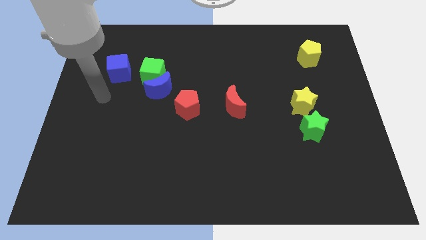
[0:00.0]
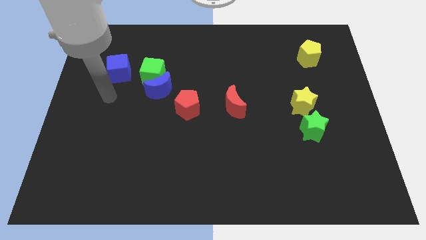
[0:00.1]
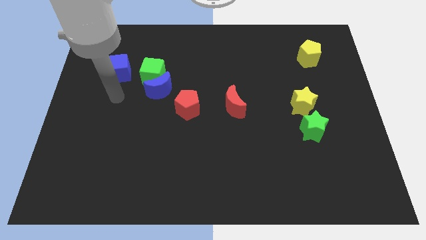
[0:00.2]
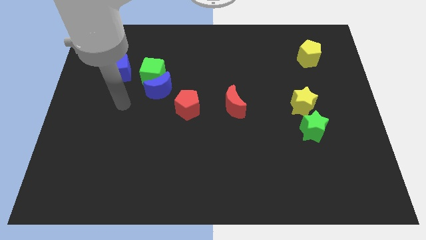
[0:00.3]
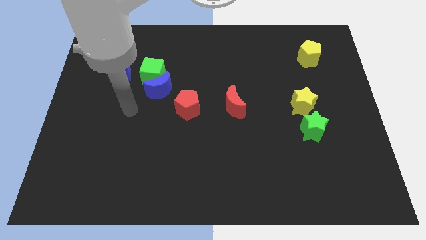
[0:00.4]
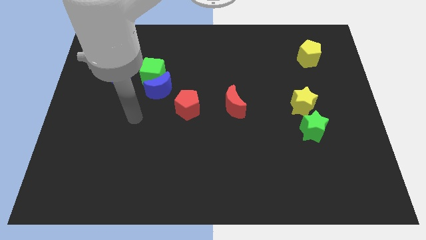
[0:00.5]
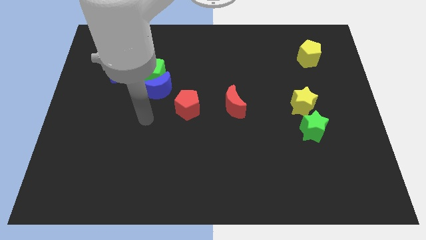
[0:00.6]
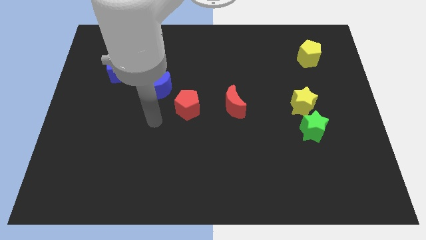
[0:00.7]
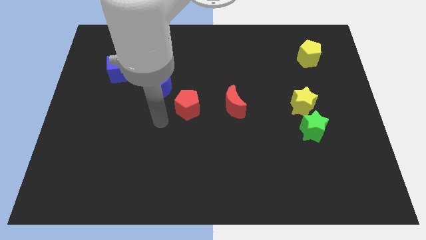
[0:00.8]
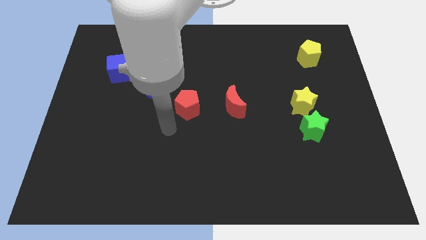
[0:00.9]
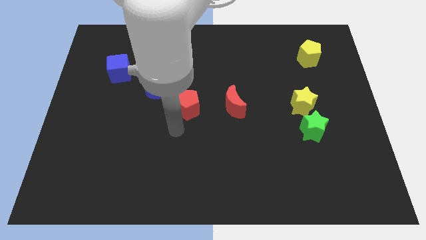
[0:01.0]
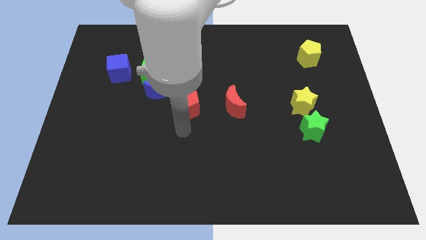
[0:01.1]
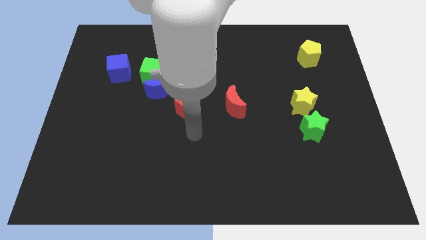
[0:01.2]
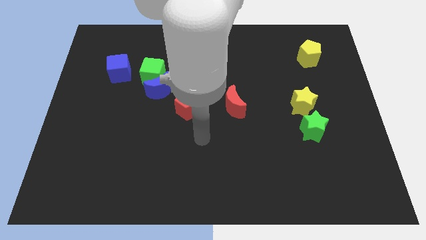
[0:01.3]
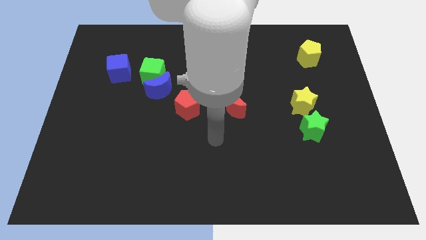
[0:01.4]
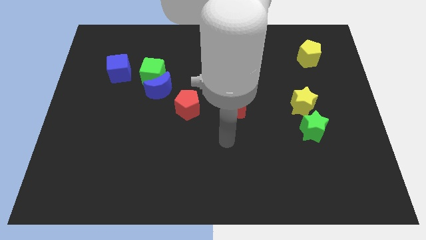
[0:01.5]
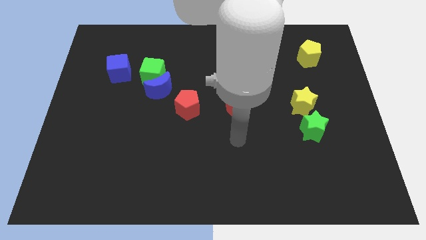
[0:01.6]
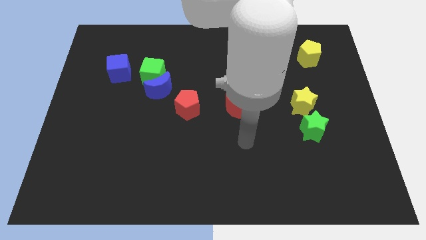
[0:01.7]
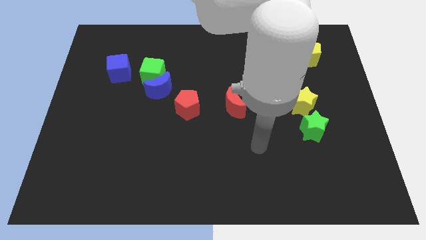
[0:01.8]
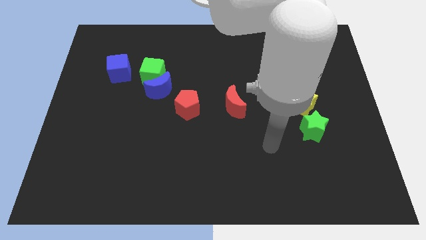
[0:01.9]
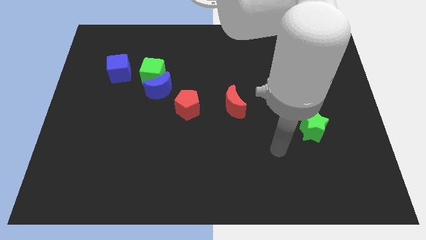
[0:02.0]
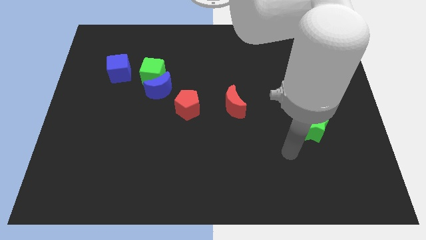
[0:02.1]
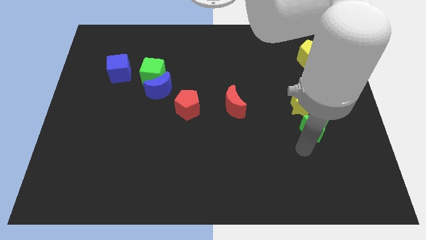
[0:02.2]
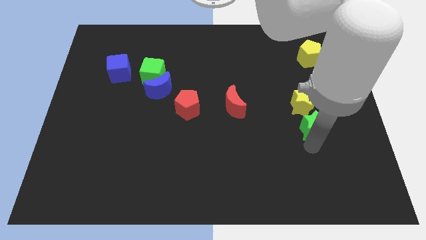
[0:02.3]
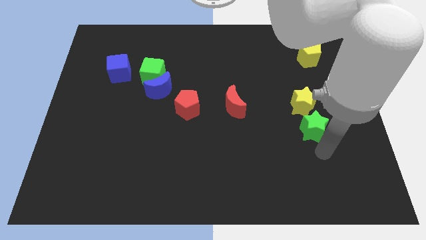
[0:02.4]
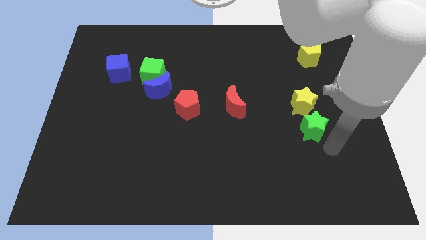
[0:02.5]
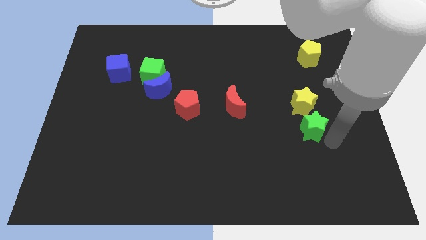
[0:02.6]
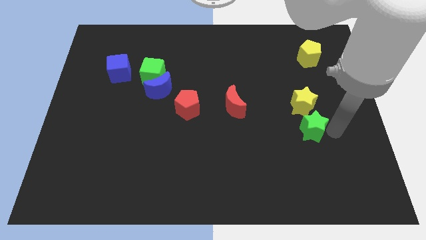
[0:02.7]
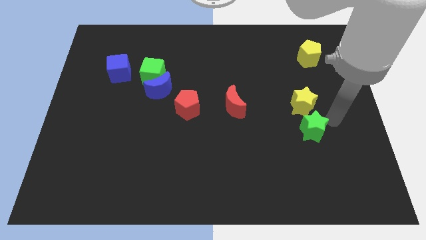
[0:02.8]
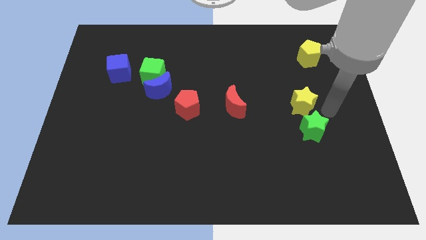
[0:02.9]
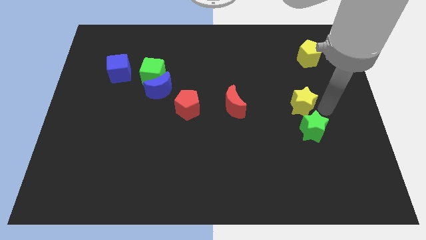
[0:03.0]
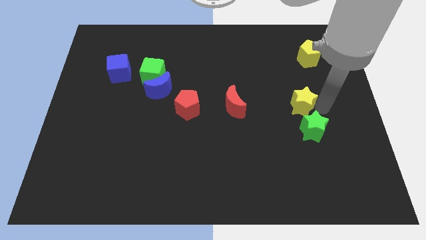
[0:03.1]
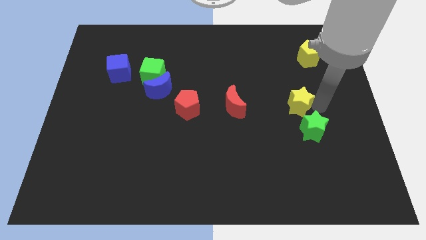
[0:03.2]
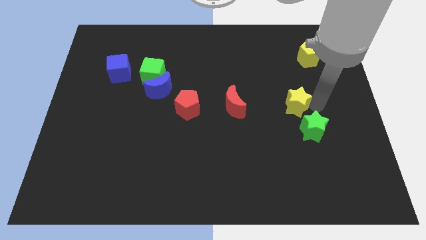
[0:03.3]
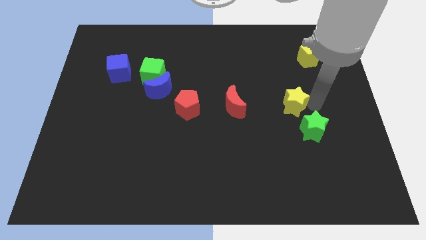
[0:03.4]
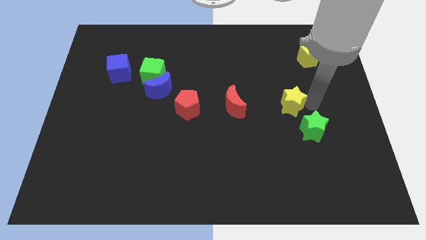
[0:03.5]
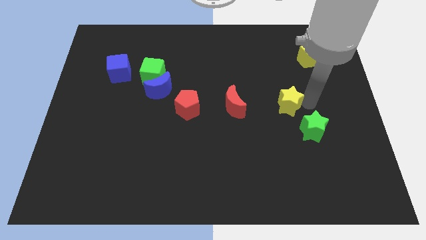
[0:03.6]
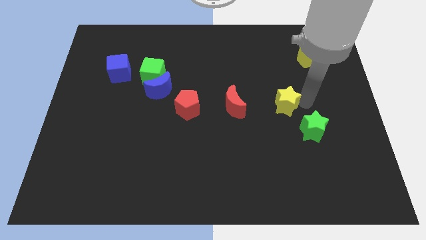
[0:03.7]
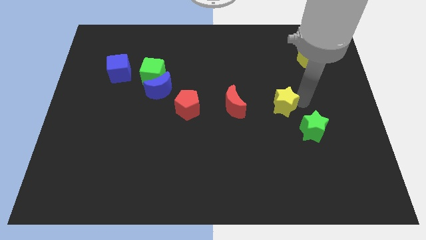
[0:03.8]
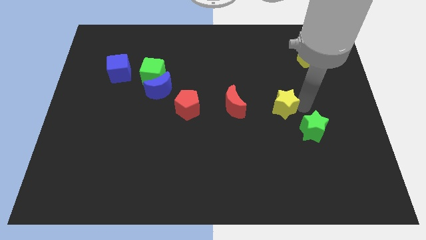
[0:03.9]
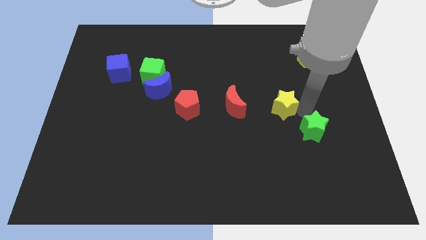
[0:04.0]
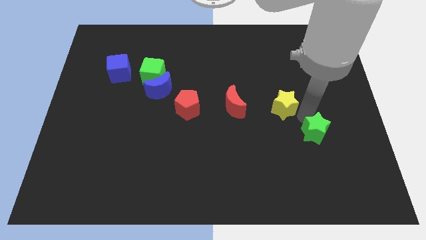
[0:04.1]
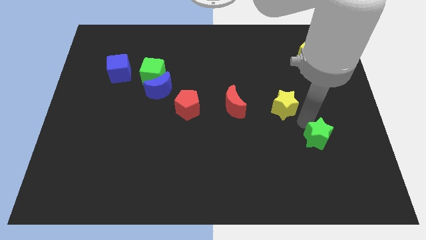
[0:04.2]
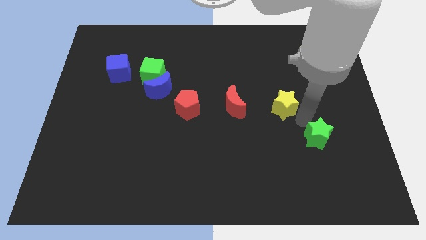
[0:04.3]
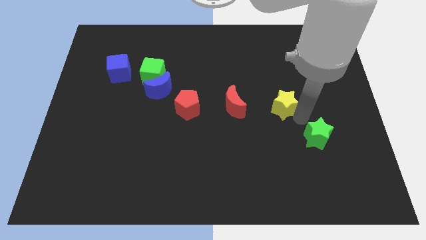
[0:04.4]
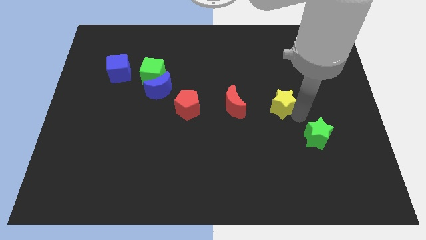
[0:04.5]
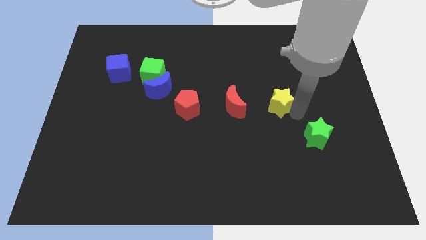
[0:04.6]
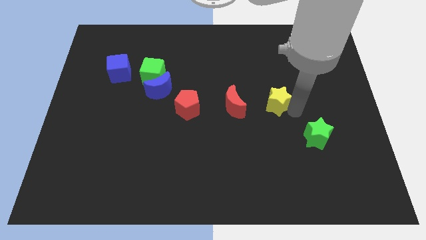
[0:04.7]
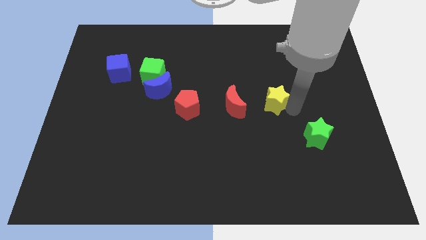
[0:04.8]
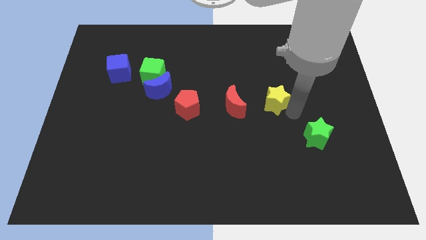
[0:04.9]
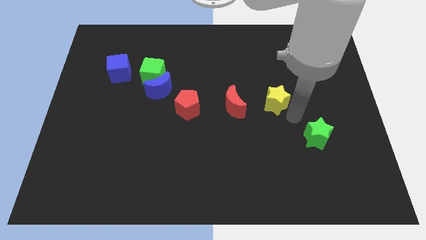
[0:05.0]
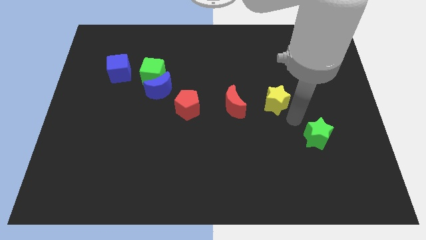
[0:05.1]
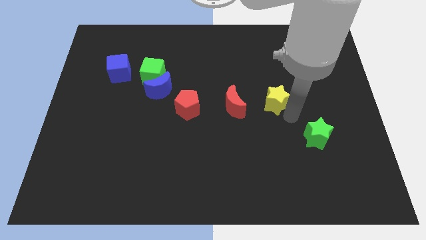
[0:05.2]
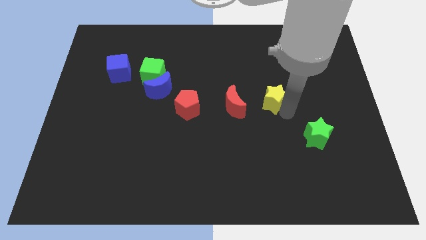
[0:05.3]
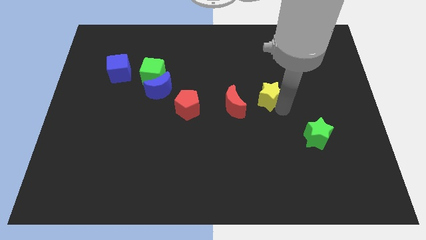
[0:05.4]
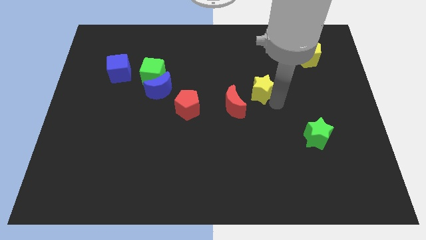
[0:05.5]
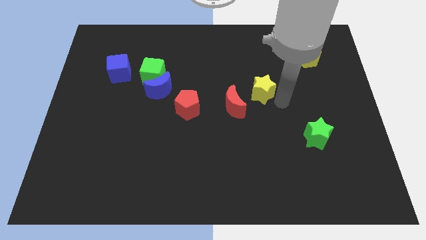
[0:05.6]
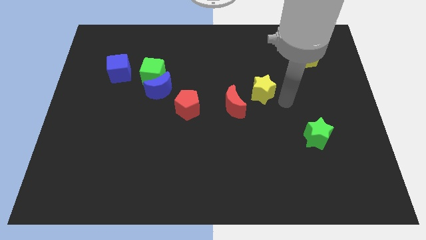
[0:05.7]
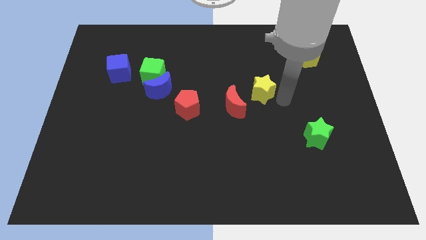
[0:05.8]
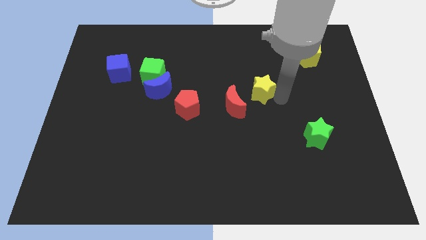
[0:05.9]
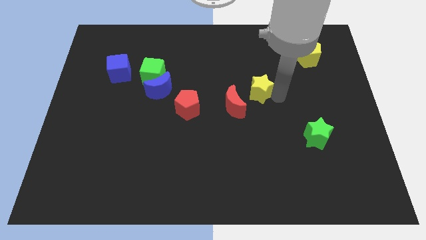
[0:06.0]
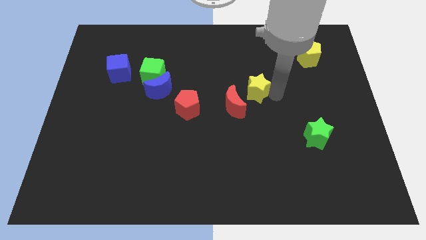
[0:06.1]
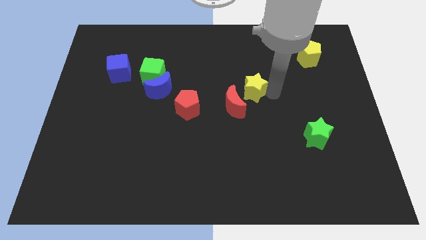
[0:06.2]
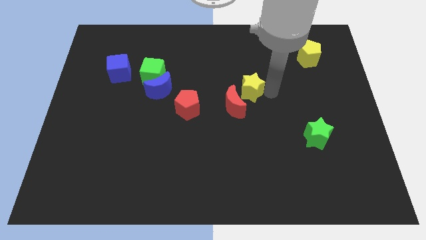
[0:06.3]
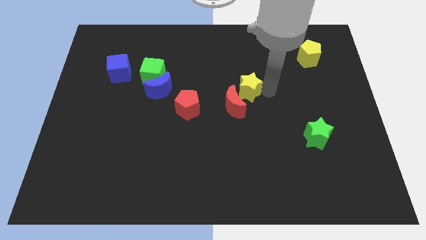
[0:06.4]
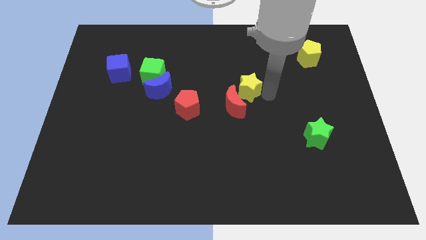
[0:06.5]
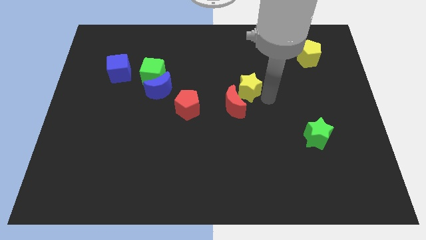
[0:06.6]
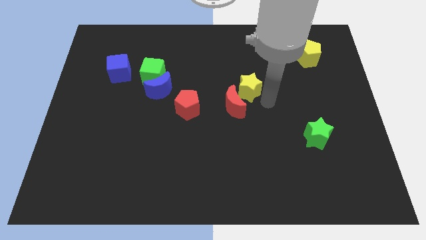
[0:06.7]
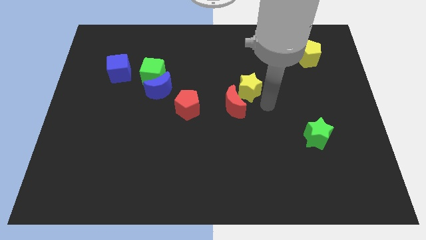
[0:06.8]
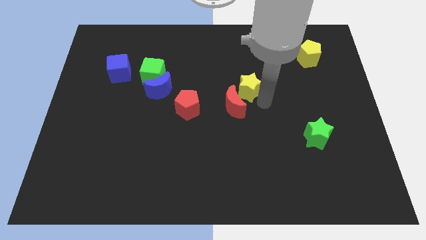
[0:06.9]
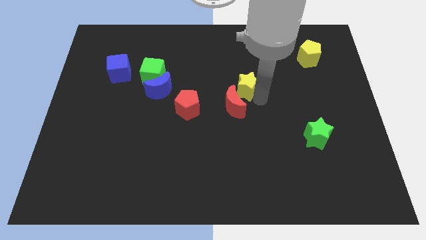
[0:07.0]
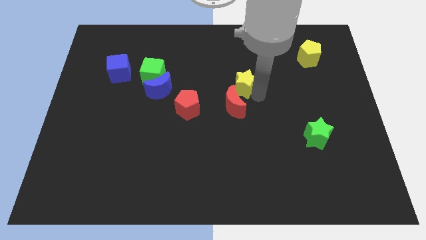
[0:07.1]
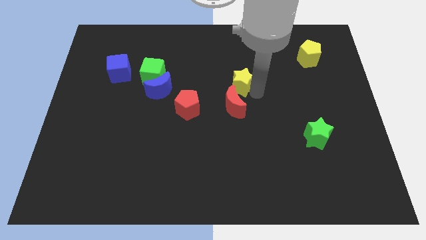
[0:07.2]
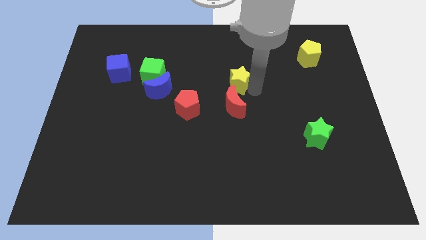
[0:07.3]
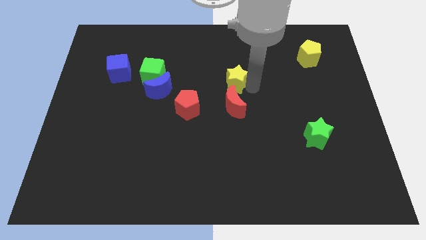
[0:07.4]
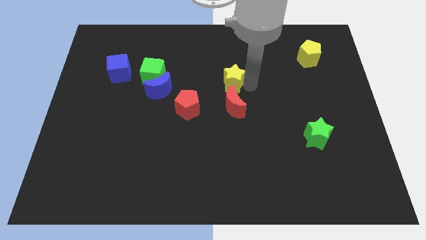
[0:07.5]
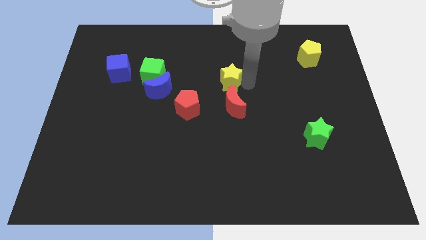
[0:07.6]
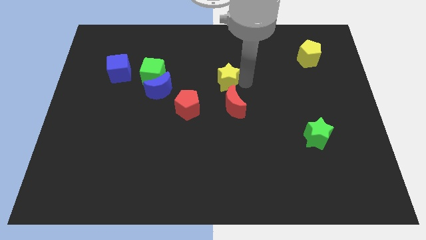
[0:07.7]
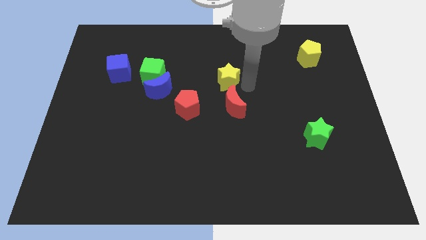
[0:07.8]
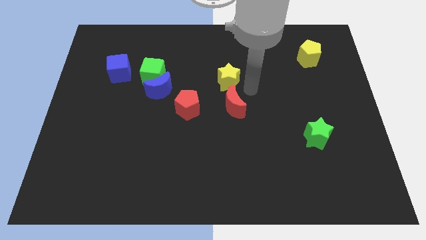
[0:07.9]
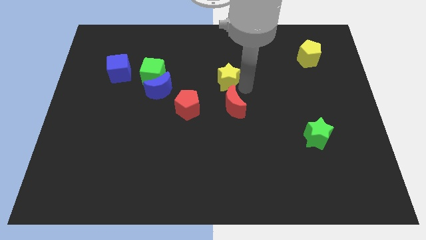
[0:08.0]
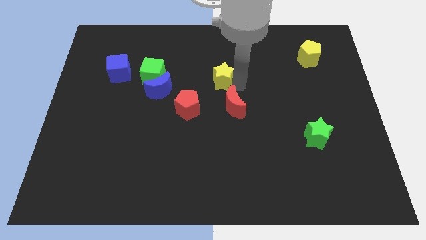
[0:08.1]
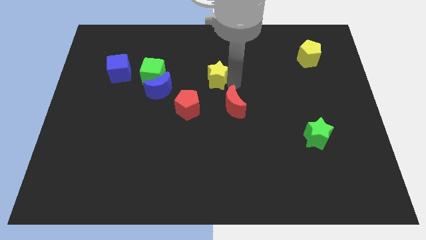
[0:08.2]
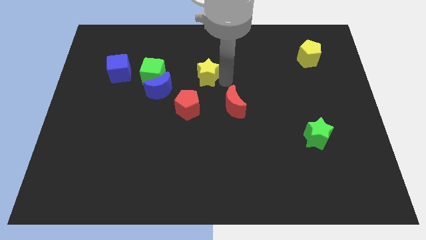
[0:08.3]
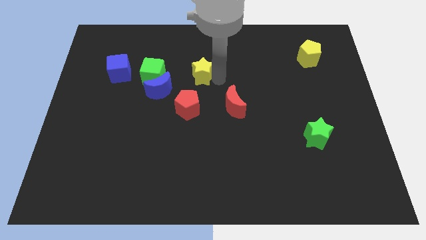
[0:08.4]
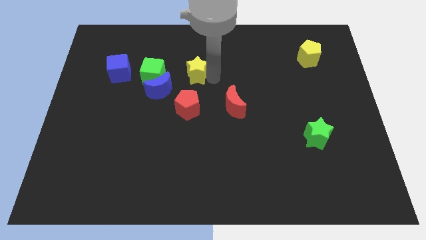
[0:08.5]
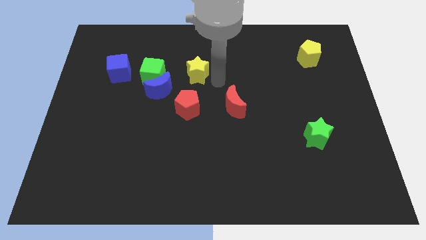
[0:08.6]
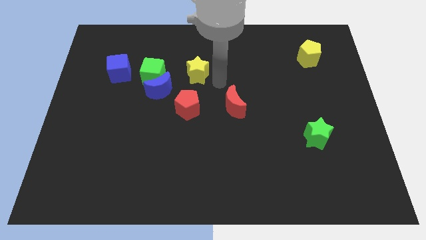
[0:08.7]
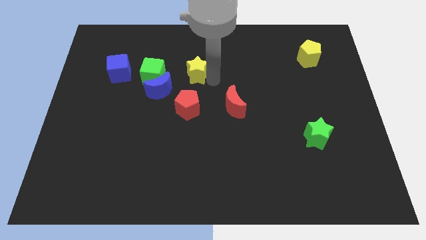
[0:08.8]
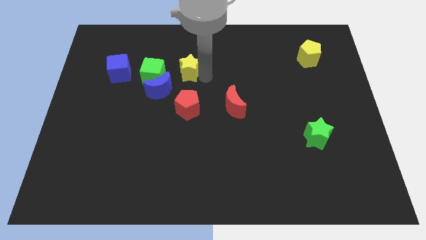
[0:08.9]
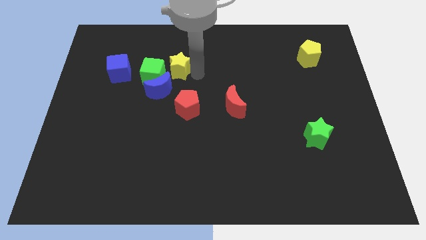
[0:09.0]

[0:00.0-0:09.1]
slide the yellow star to the top side of the blue moon
